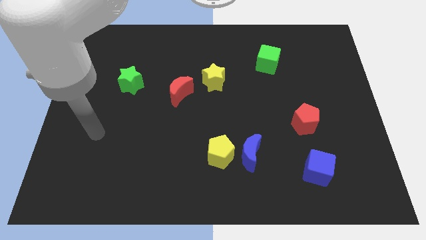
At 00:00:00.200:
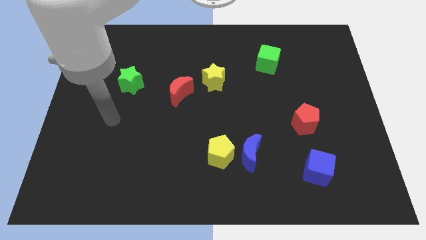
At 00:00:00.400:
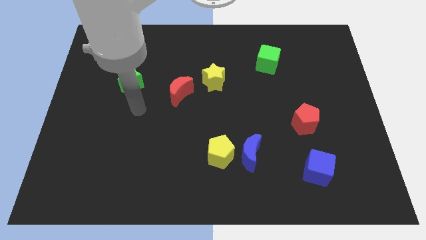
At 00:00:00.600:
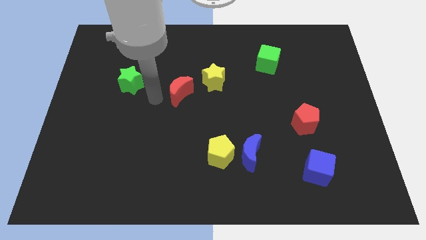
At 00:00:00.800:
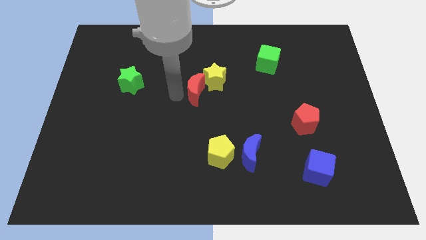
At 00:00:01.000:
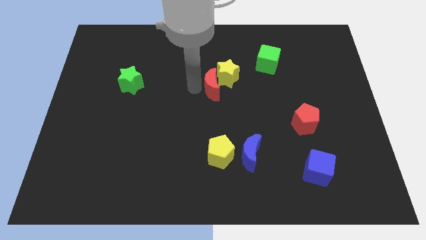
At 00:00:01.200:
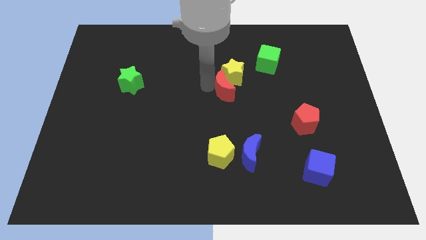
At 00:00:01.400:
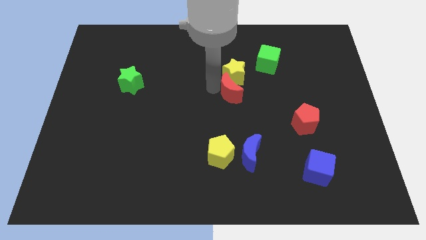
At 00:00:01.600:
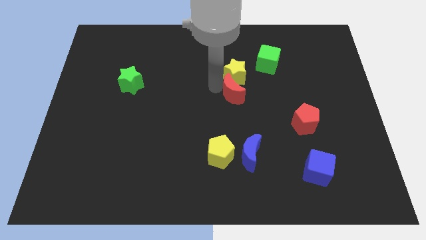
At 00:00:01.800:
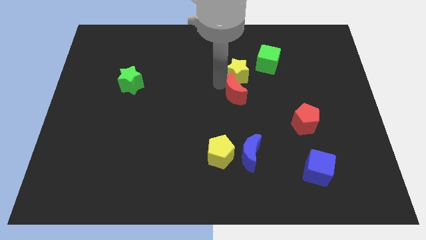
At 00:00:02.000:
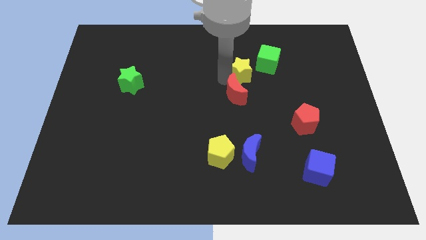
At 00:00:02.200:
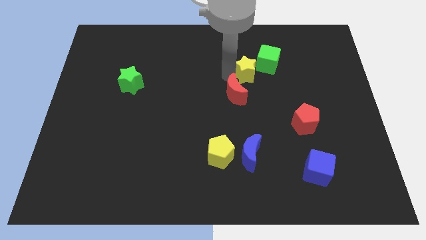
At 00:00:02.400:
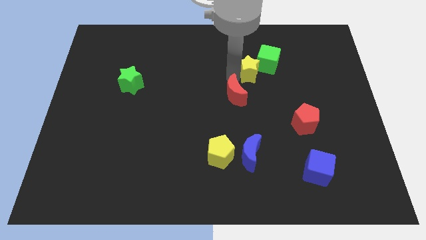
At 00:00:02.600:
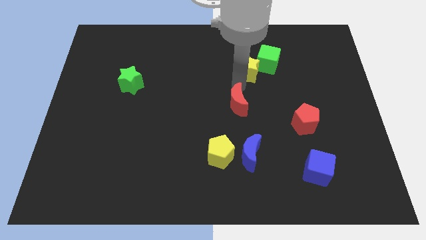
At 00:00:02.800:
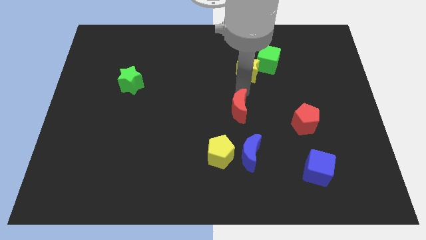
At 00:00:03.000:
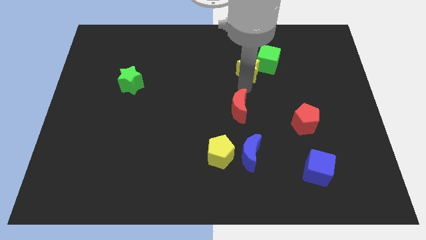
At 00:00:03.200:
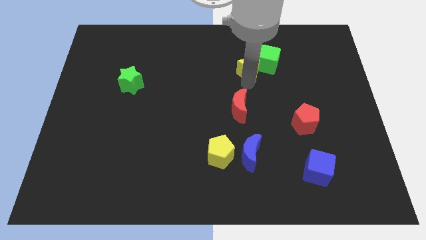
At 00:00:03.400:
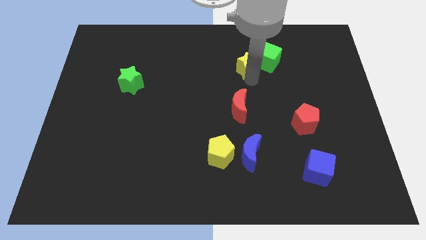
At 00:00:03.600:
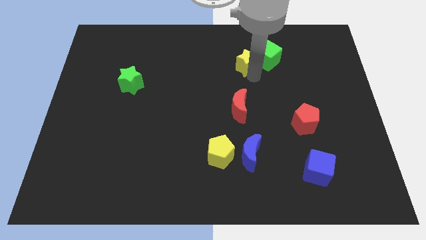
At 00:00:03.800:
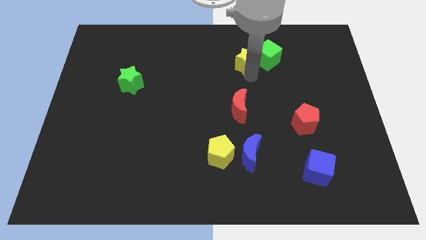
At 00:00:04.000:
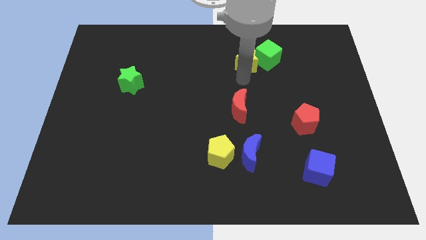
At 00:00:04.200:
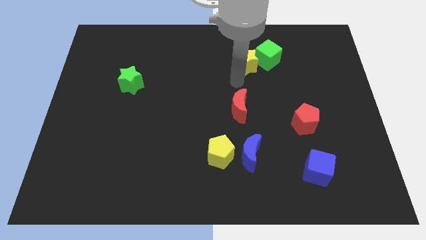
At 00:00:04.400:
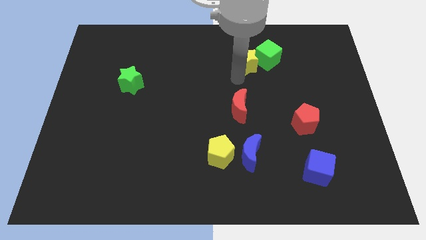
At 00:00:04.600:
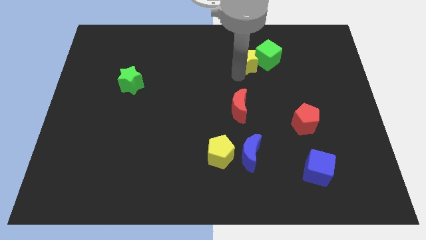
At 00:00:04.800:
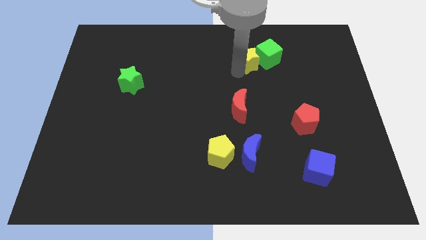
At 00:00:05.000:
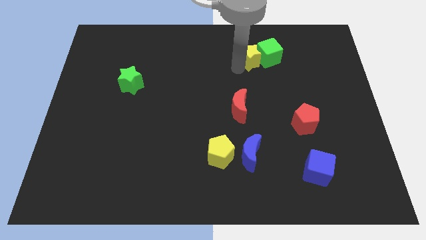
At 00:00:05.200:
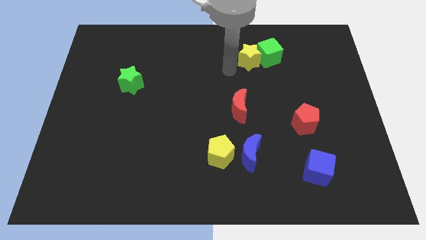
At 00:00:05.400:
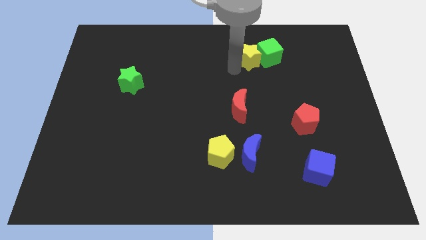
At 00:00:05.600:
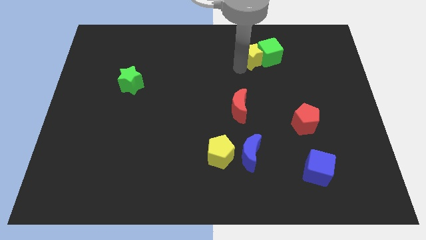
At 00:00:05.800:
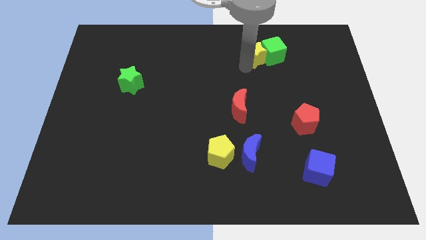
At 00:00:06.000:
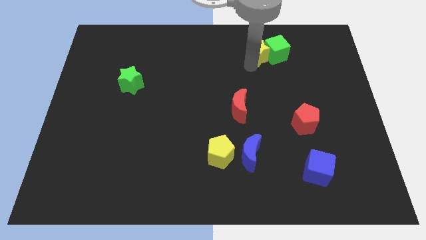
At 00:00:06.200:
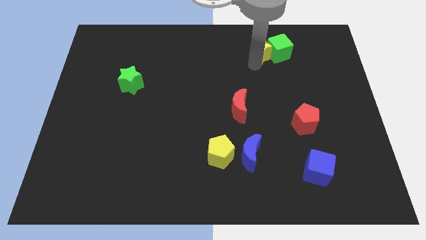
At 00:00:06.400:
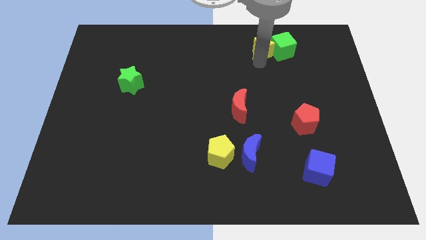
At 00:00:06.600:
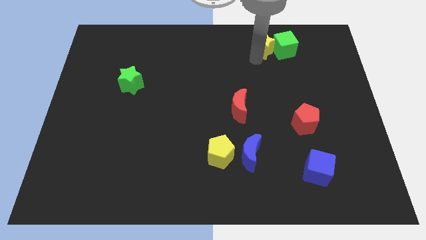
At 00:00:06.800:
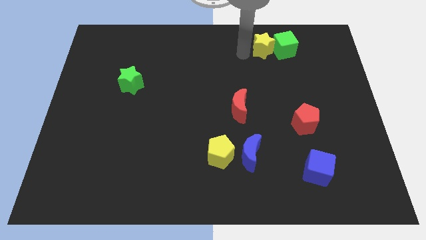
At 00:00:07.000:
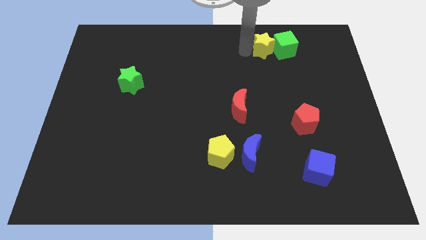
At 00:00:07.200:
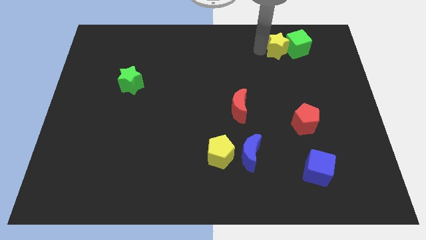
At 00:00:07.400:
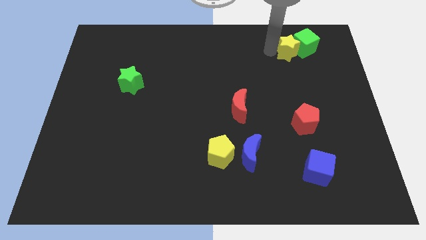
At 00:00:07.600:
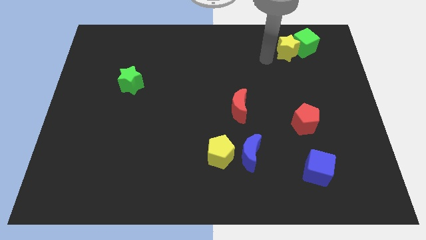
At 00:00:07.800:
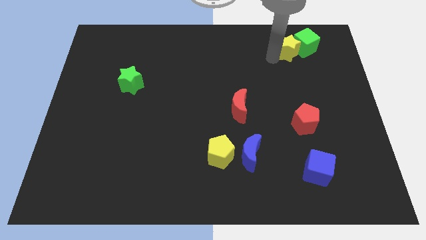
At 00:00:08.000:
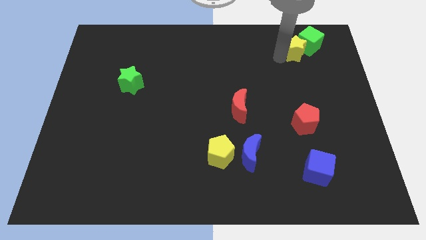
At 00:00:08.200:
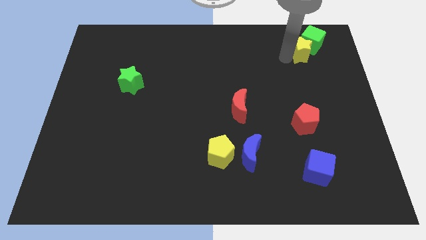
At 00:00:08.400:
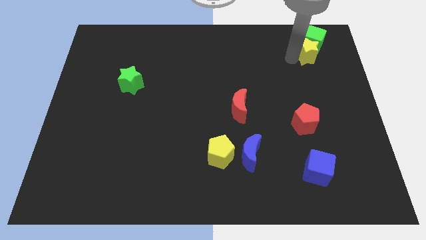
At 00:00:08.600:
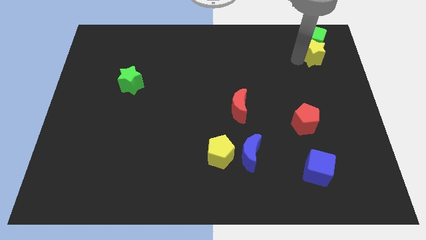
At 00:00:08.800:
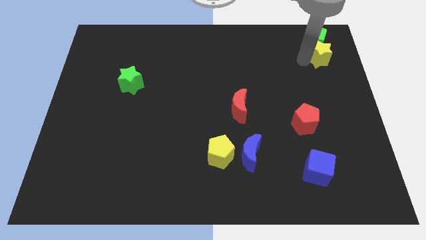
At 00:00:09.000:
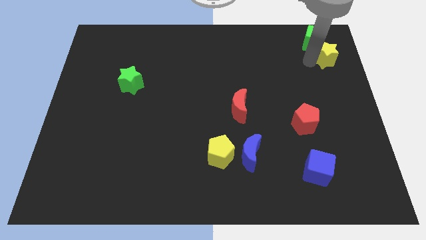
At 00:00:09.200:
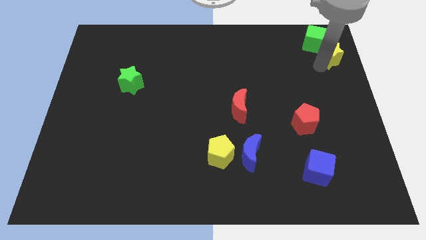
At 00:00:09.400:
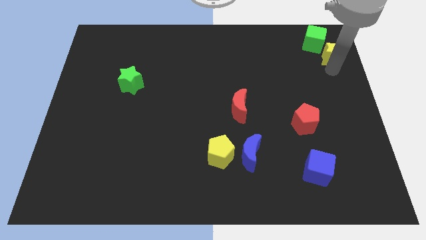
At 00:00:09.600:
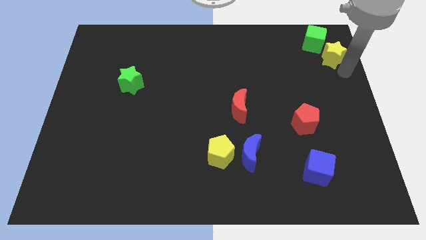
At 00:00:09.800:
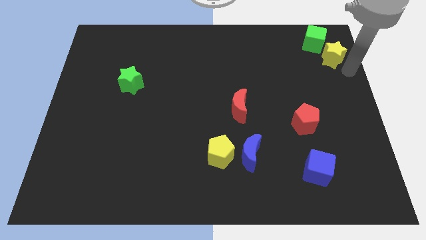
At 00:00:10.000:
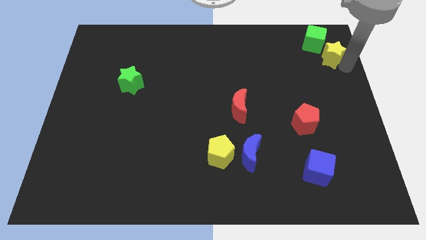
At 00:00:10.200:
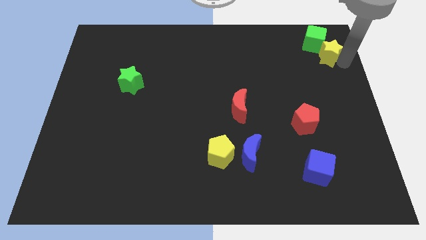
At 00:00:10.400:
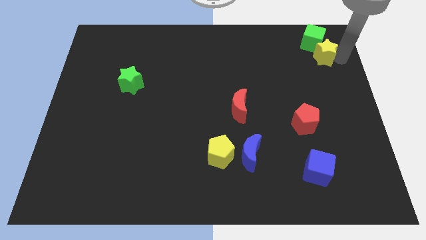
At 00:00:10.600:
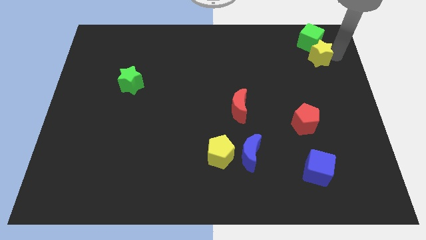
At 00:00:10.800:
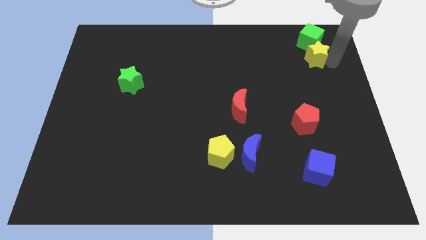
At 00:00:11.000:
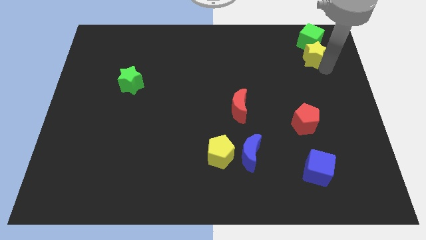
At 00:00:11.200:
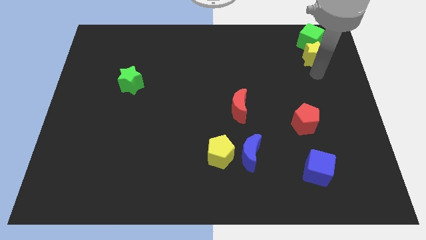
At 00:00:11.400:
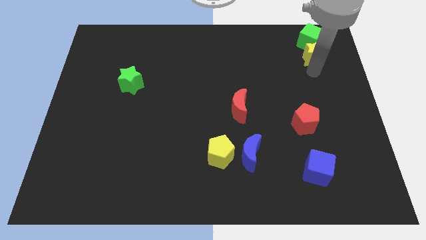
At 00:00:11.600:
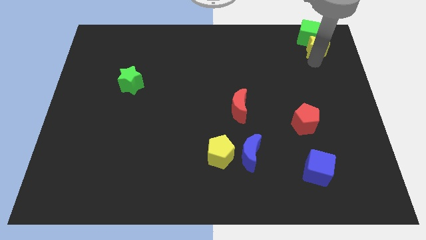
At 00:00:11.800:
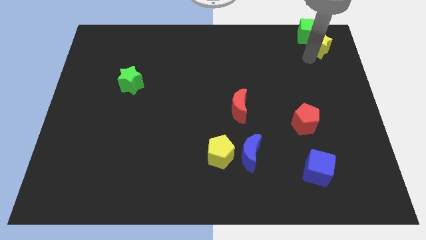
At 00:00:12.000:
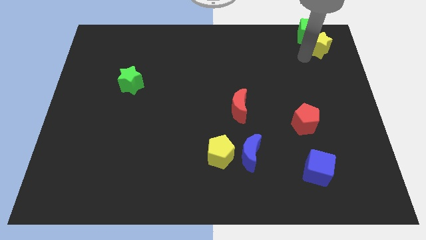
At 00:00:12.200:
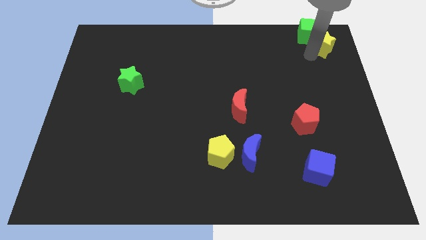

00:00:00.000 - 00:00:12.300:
push the yellow star to the top right

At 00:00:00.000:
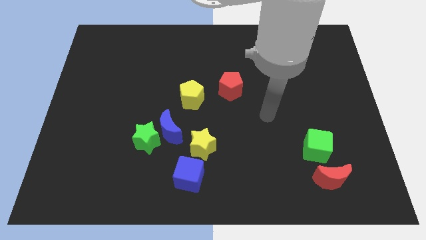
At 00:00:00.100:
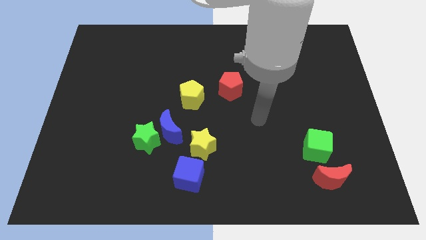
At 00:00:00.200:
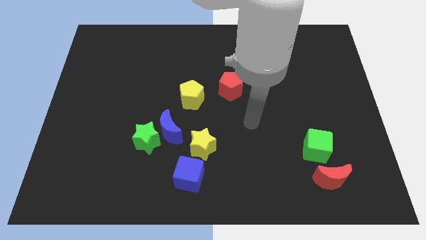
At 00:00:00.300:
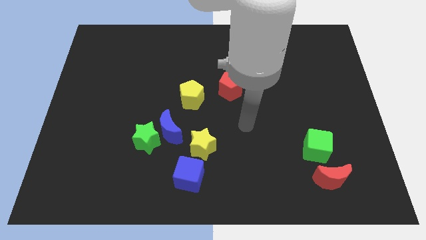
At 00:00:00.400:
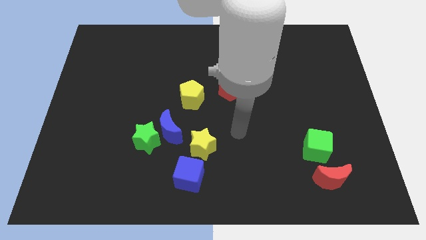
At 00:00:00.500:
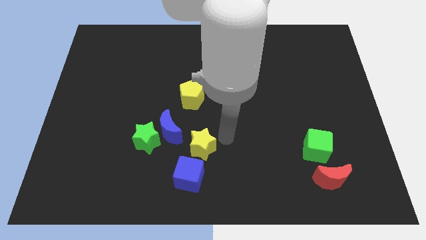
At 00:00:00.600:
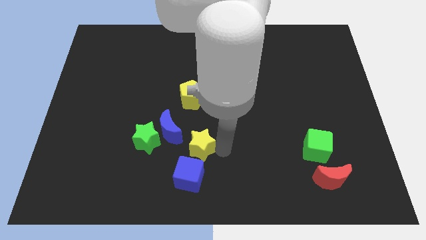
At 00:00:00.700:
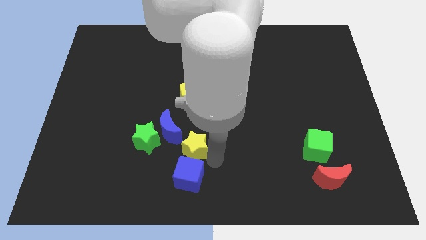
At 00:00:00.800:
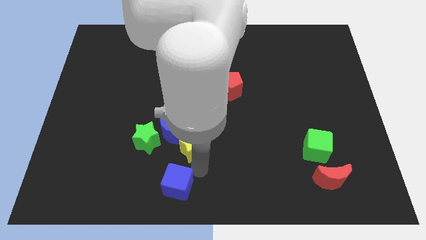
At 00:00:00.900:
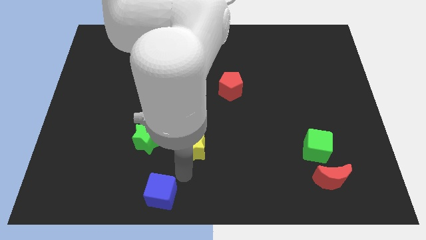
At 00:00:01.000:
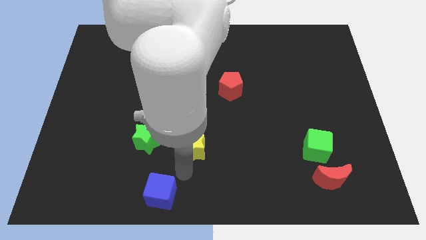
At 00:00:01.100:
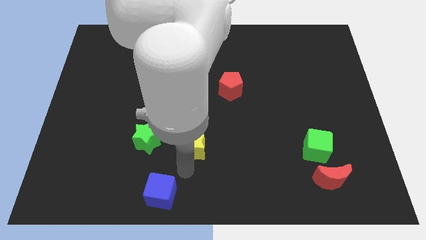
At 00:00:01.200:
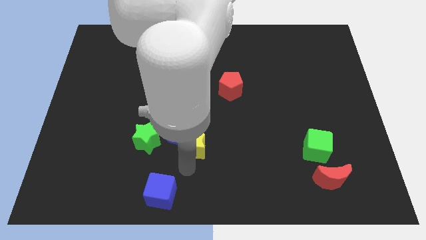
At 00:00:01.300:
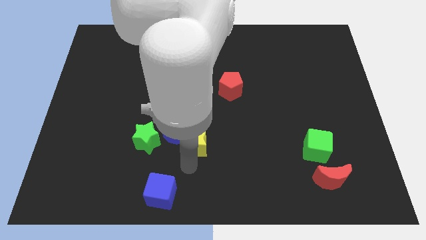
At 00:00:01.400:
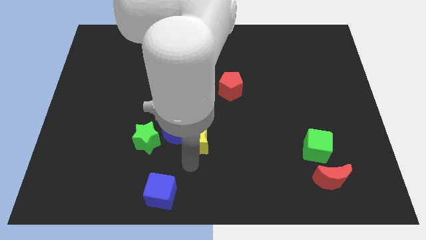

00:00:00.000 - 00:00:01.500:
move the yellow star to the center
